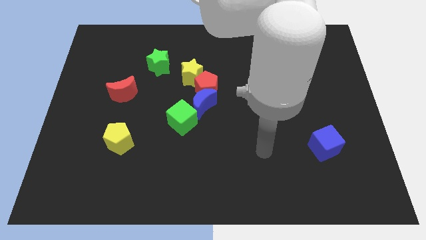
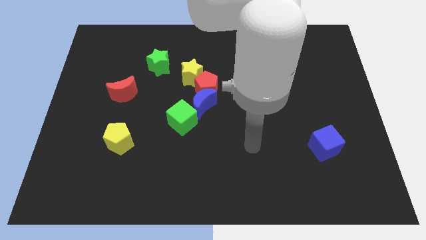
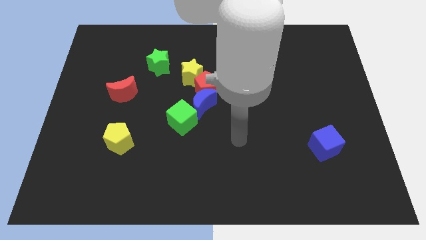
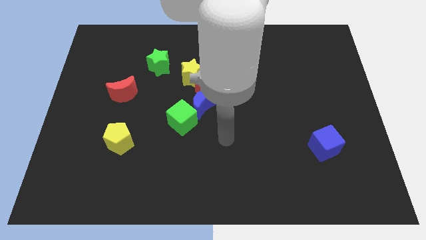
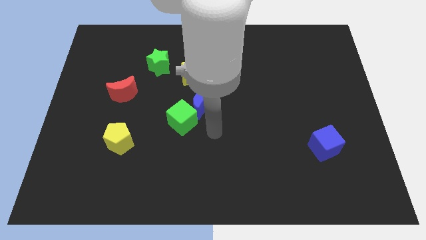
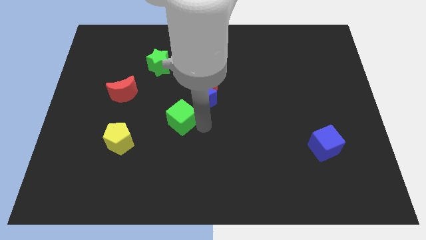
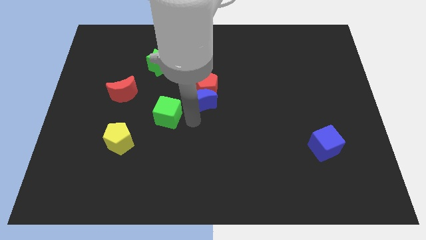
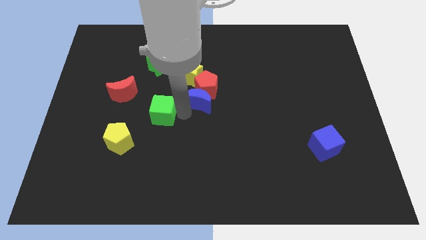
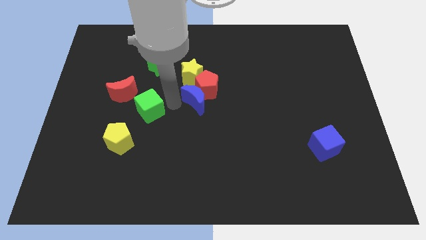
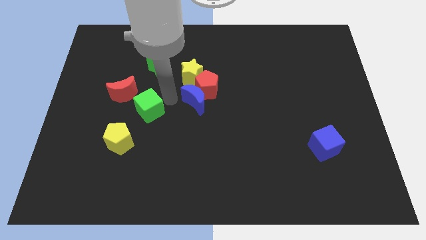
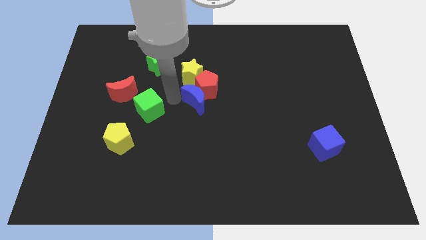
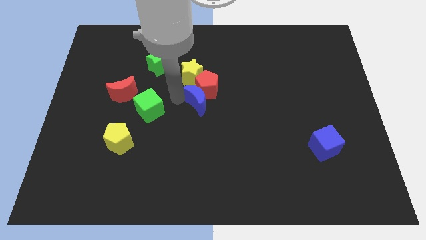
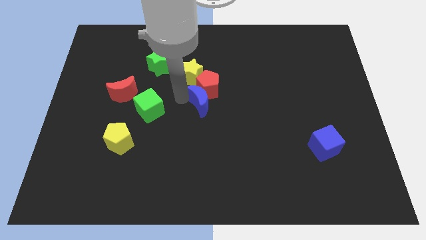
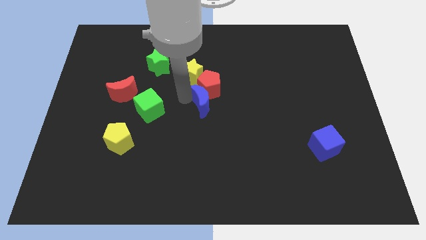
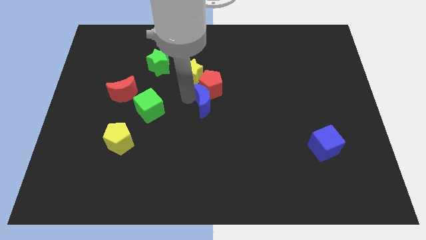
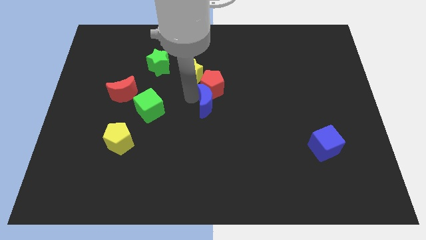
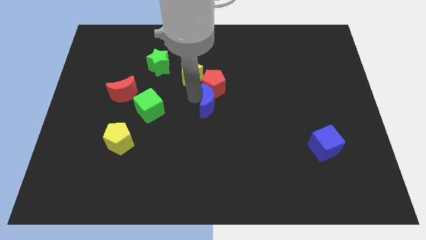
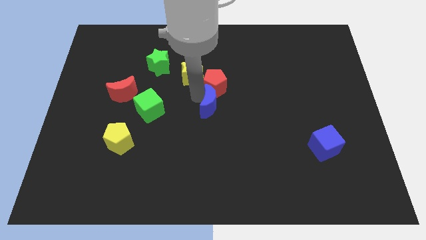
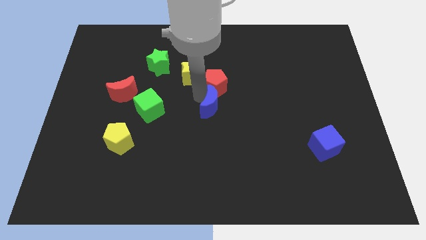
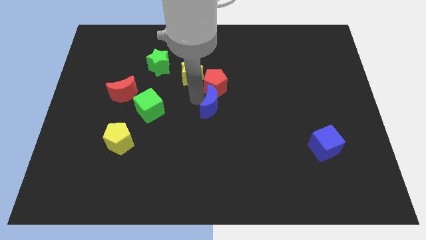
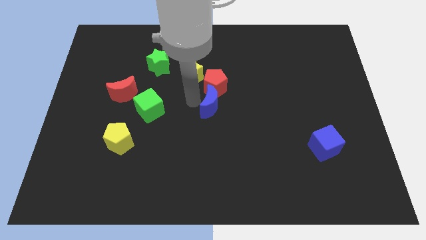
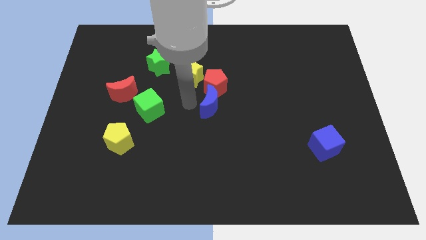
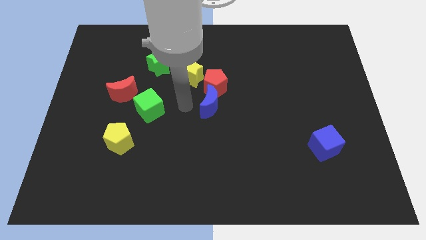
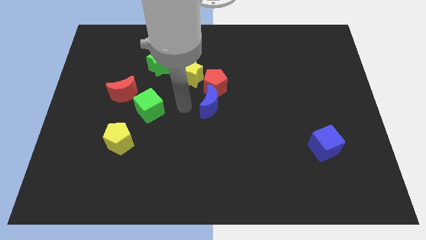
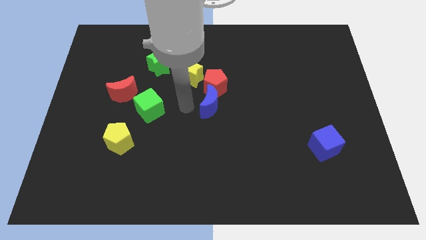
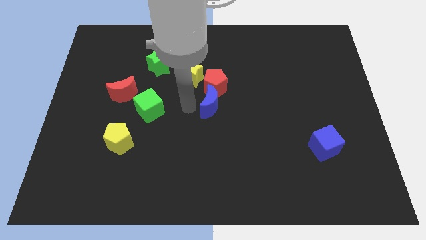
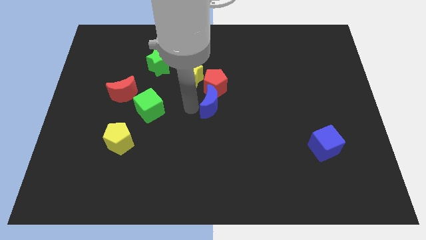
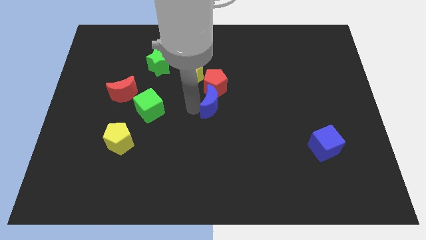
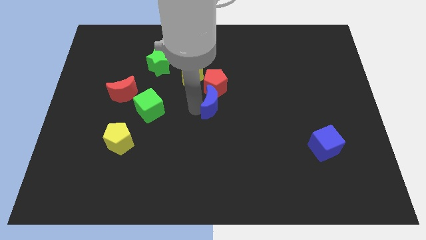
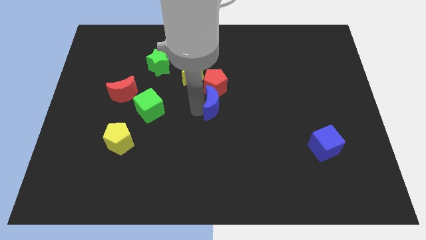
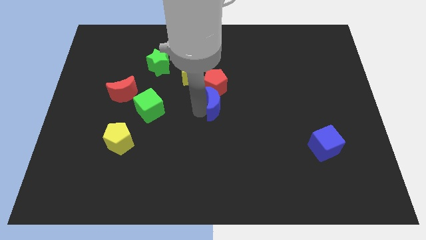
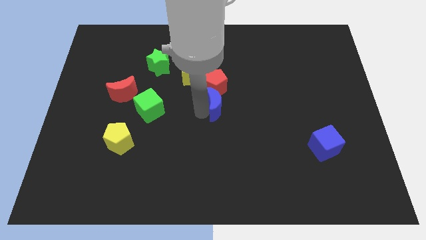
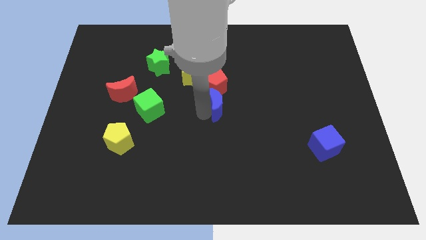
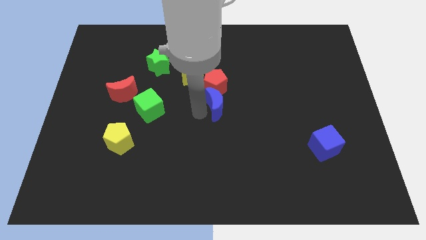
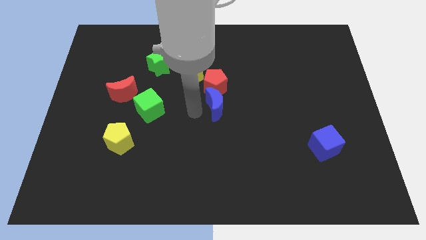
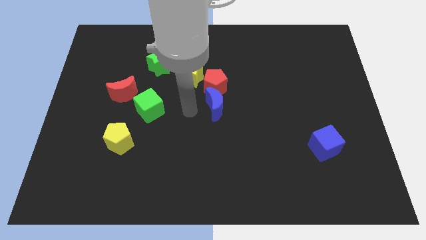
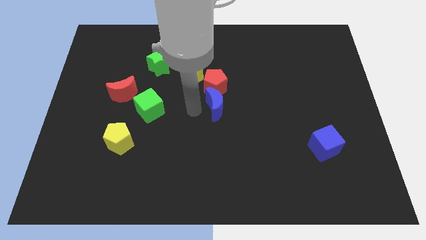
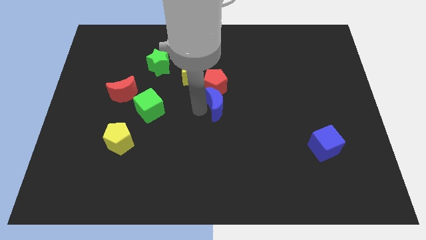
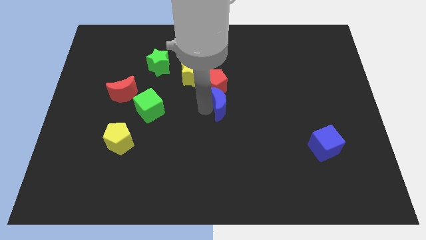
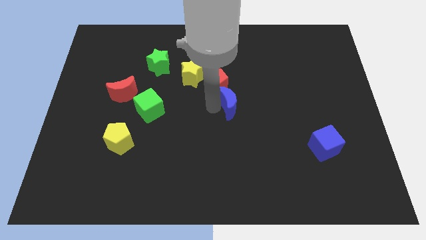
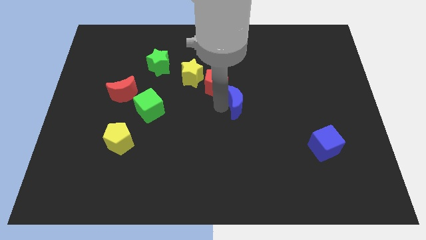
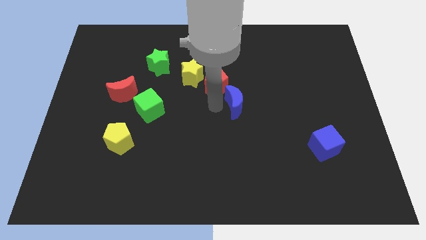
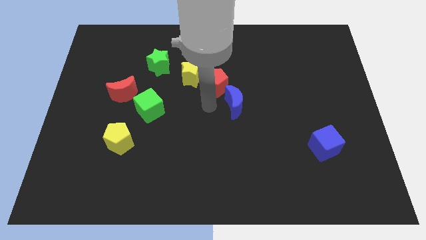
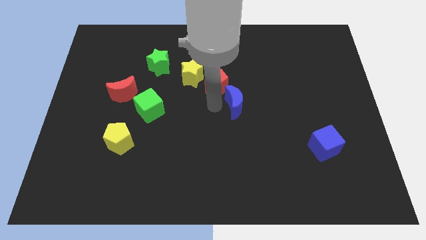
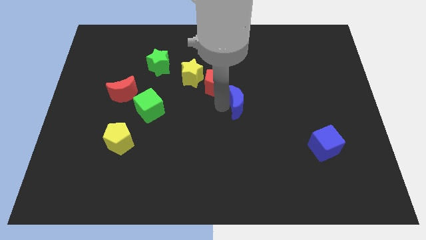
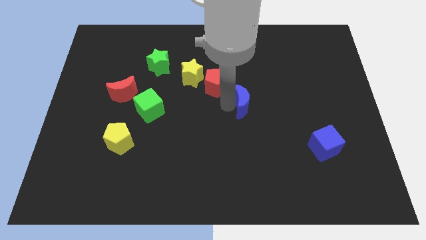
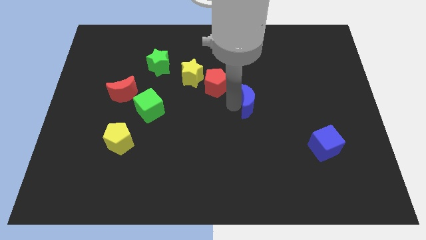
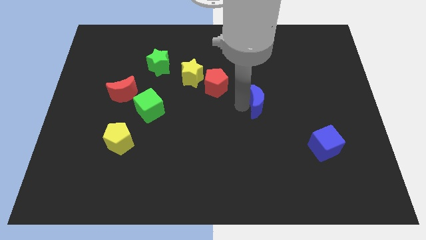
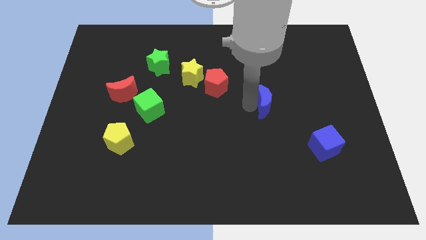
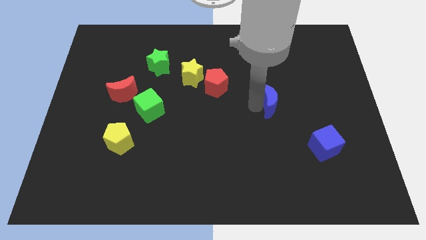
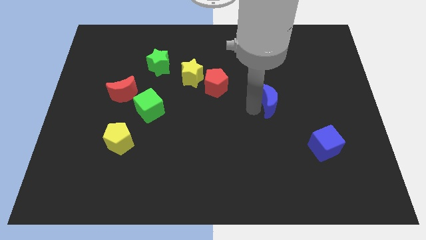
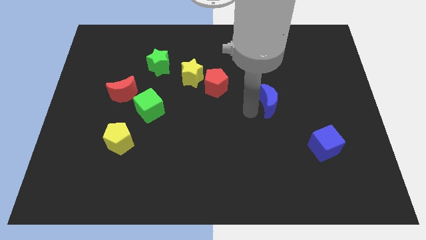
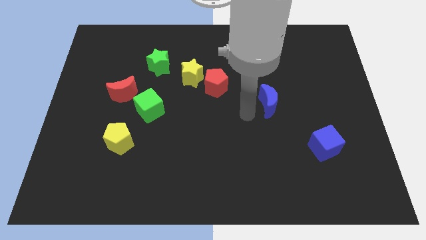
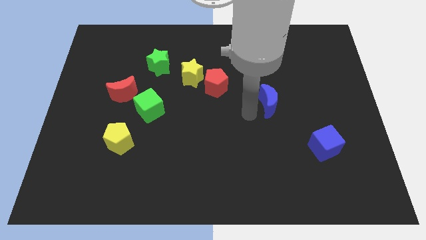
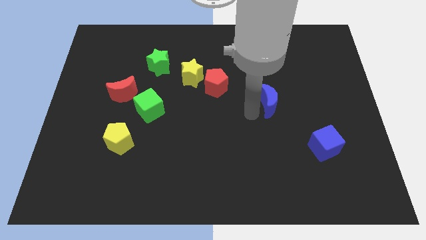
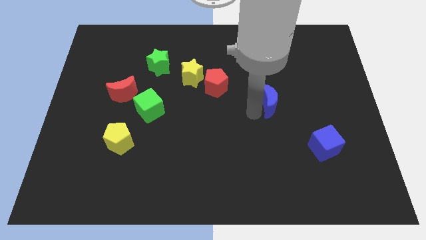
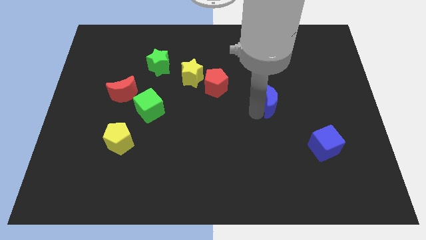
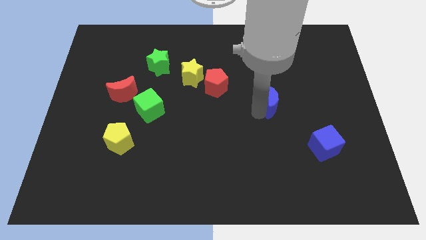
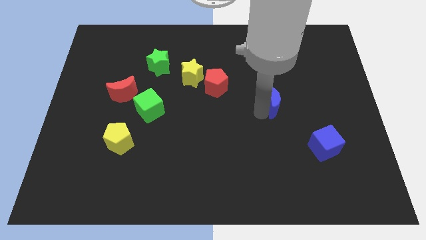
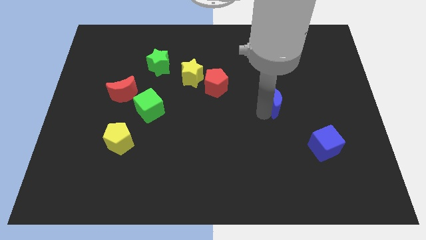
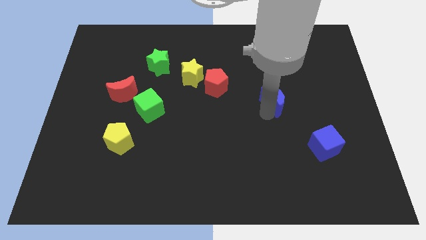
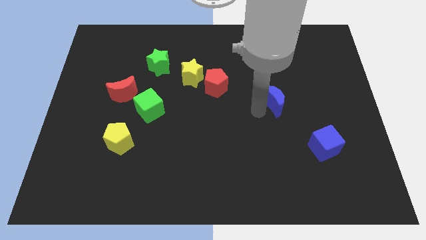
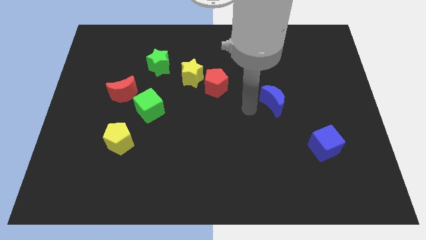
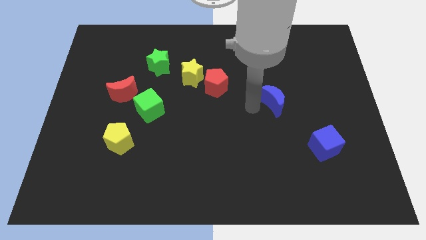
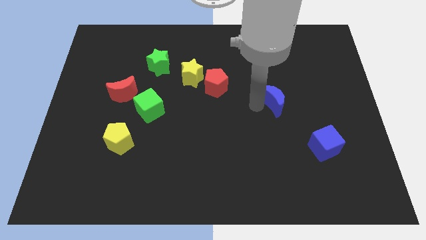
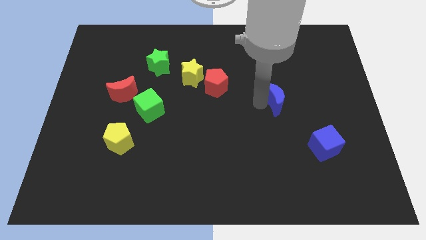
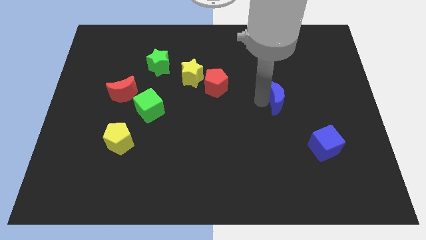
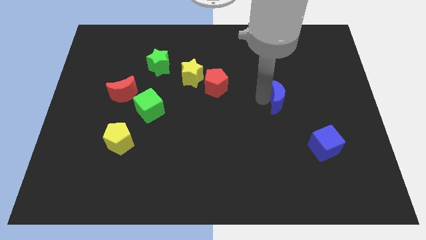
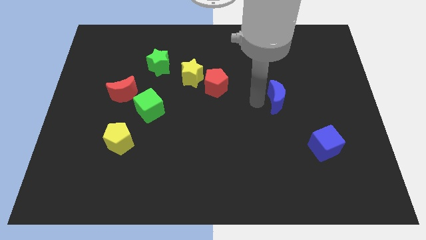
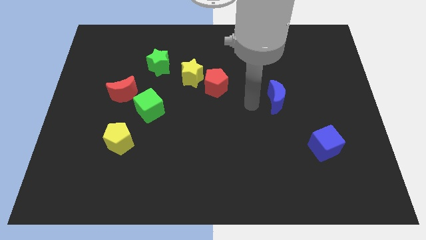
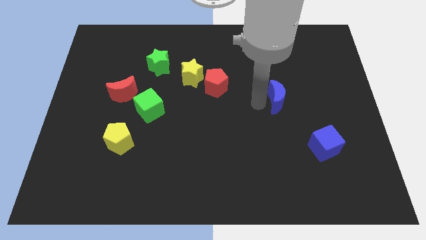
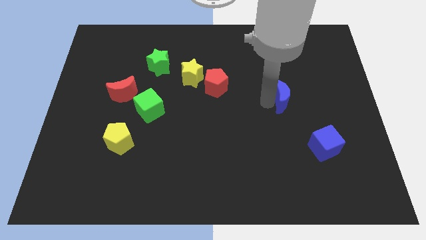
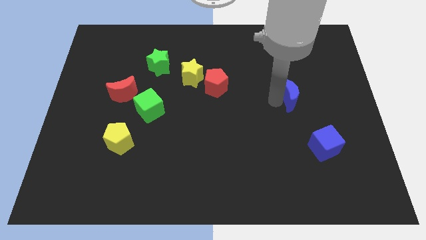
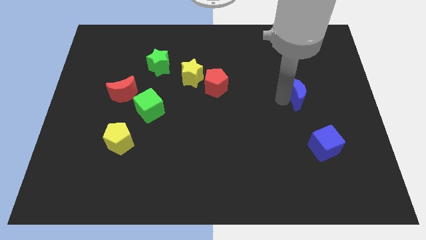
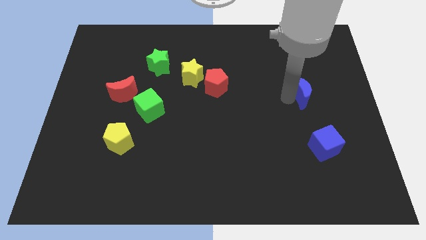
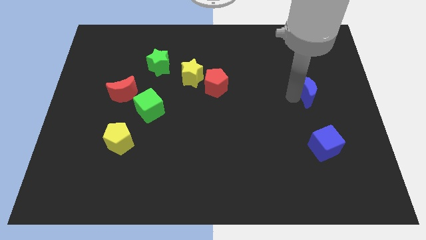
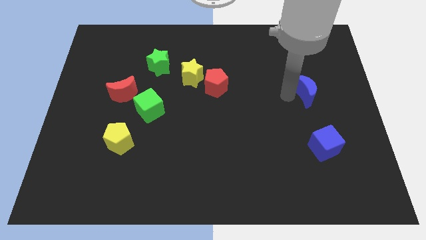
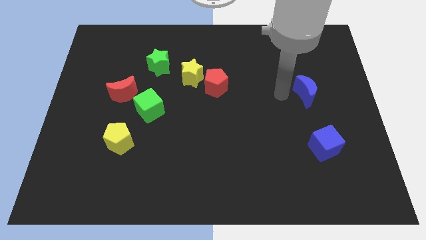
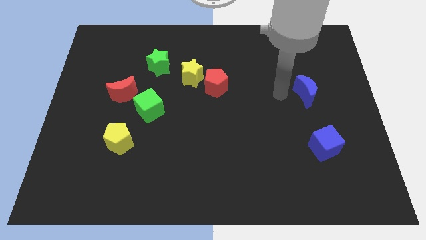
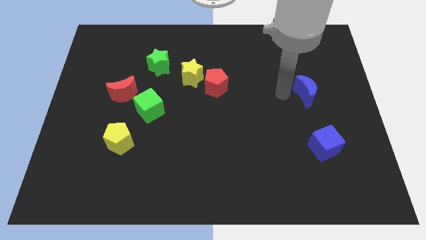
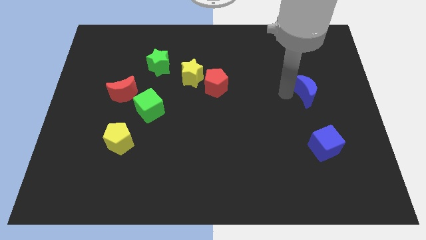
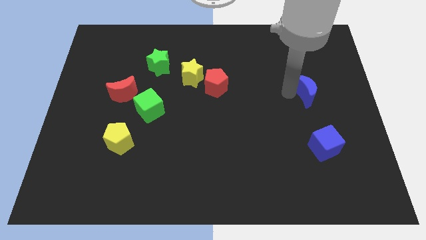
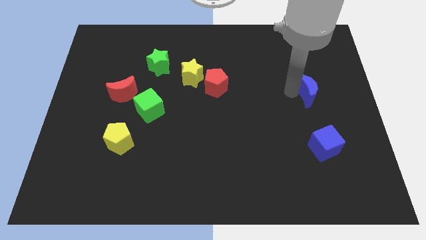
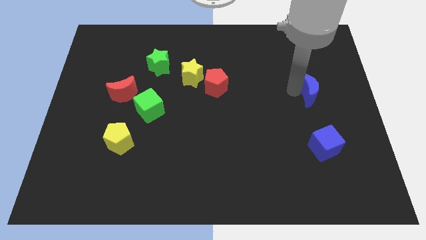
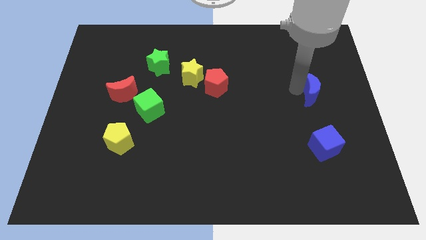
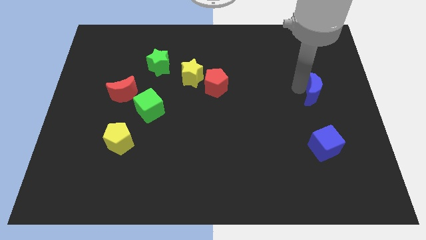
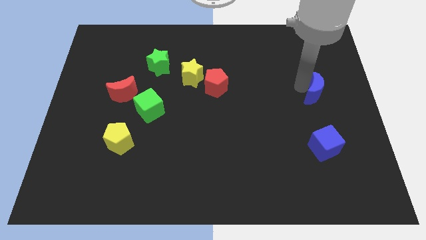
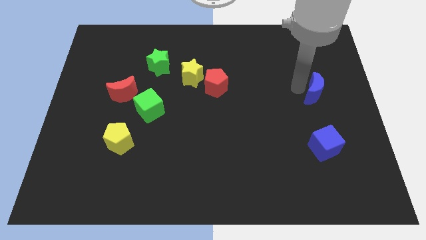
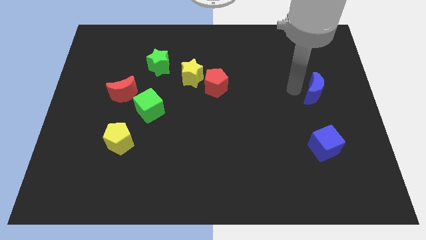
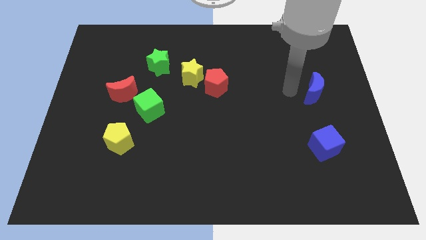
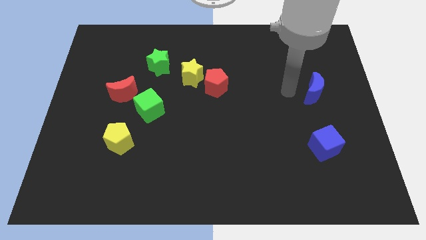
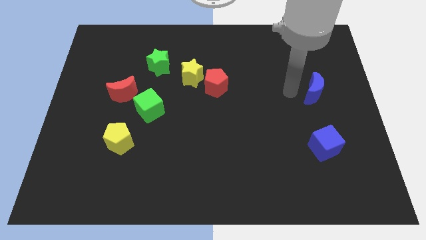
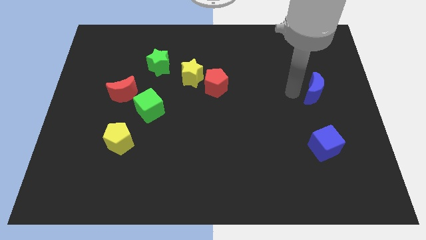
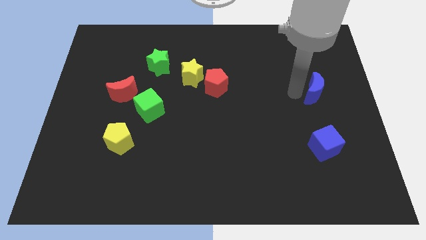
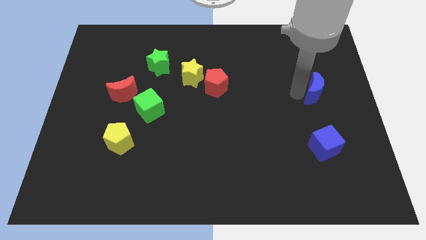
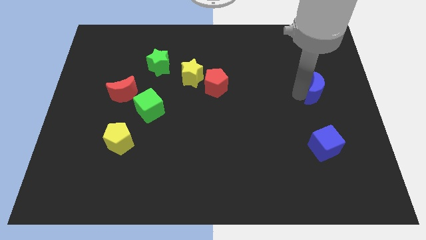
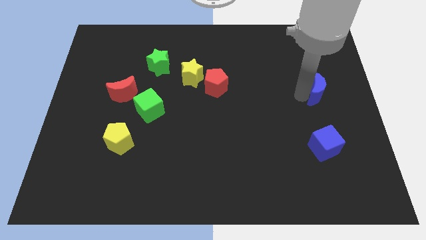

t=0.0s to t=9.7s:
move the blue moon to the right side
